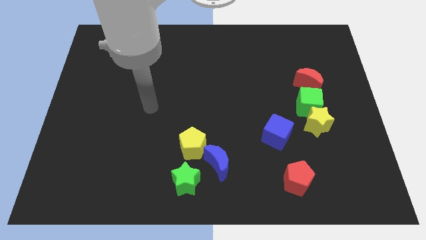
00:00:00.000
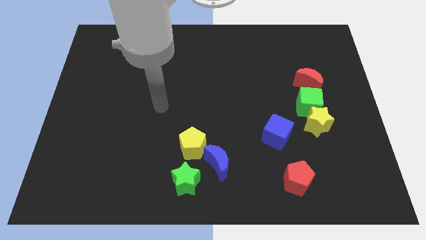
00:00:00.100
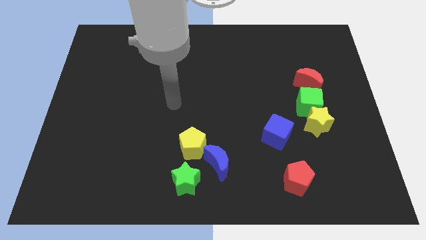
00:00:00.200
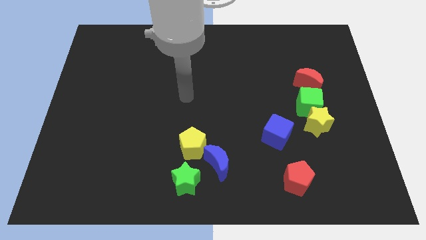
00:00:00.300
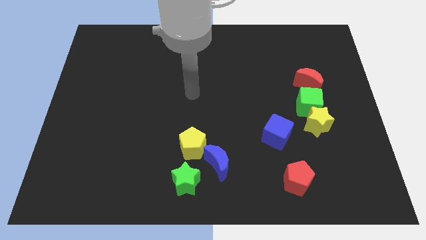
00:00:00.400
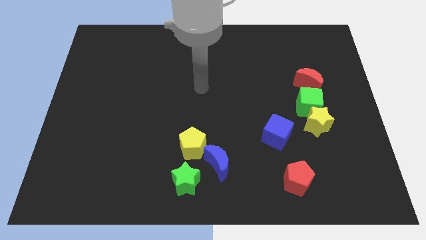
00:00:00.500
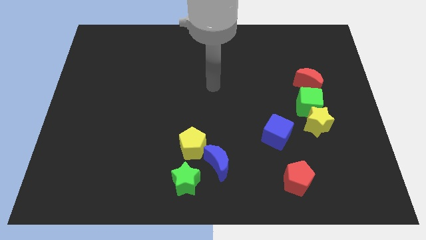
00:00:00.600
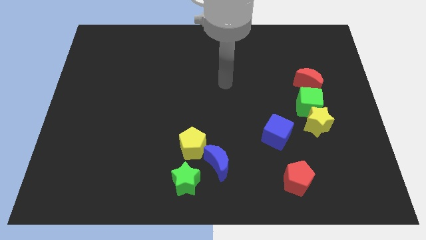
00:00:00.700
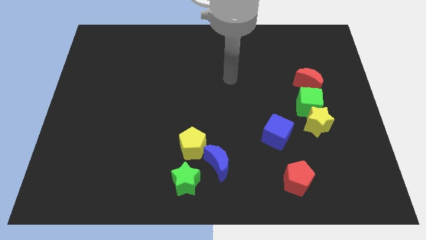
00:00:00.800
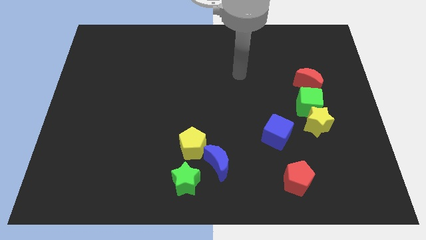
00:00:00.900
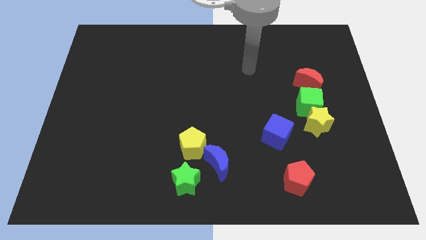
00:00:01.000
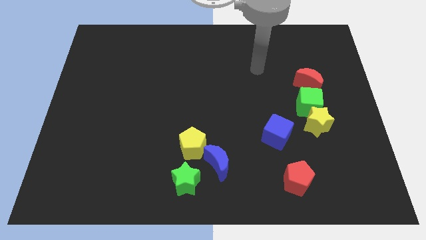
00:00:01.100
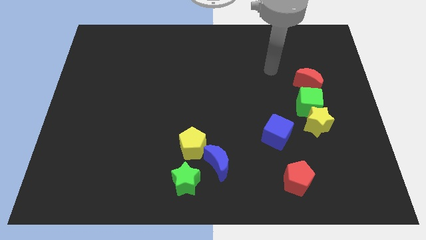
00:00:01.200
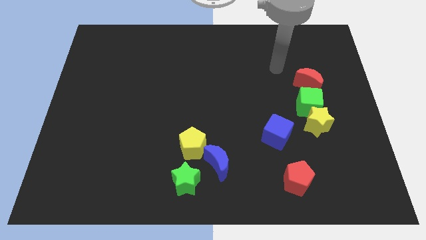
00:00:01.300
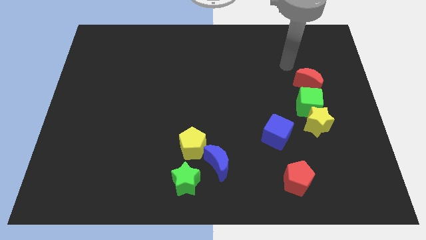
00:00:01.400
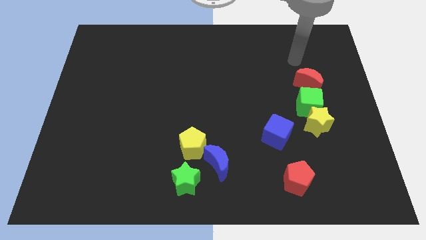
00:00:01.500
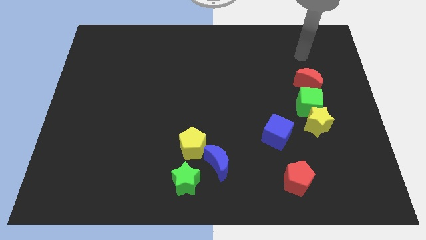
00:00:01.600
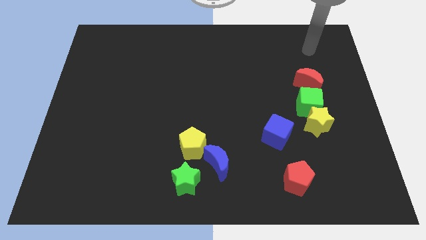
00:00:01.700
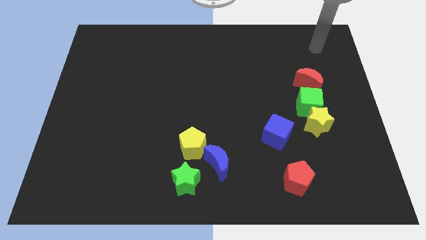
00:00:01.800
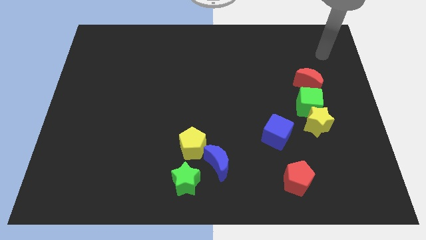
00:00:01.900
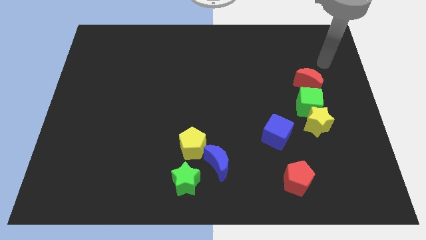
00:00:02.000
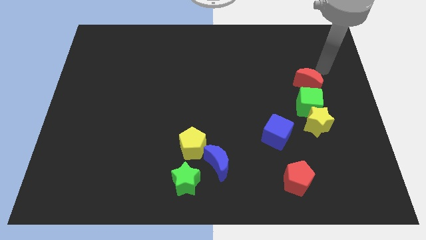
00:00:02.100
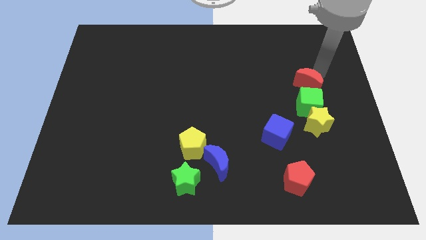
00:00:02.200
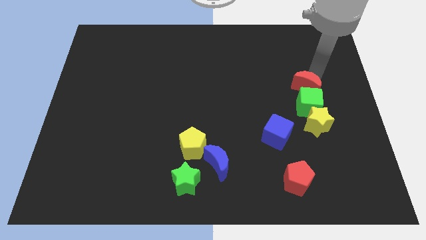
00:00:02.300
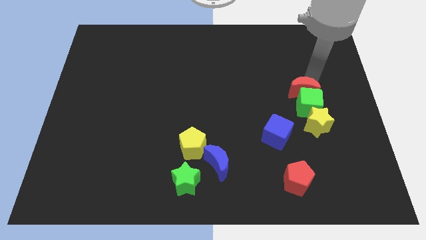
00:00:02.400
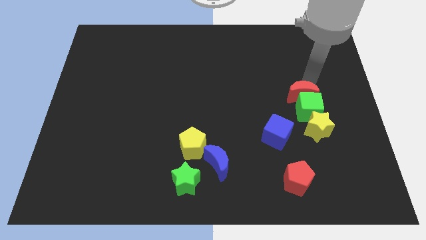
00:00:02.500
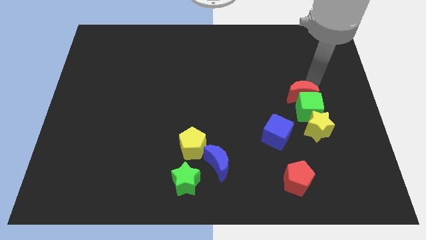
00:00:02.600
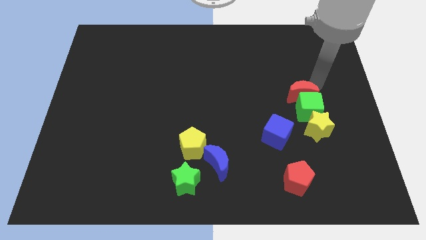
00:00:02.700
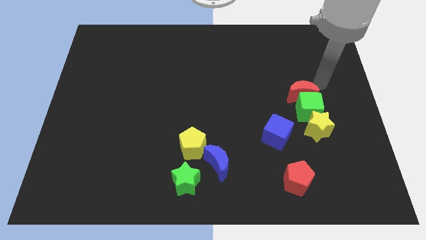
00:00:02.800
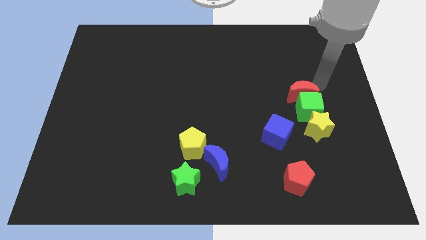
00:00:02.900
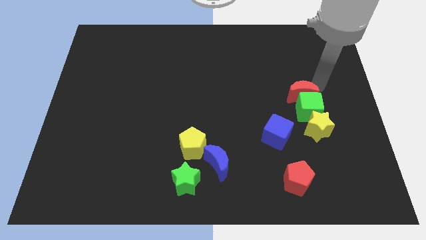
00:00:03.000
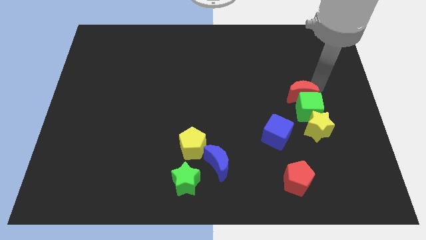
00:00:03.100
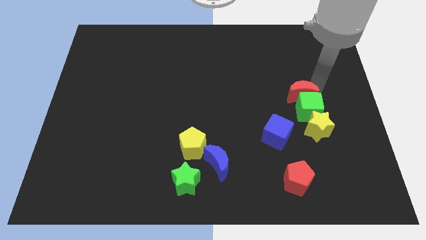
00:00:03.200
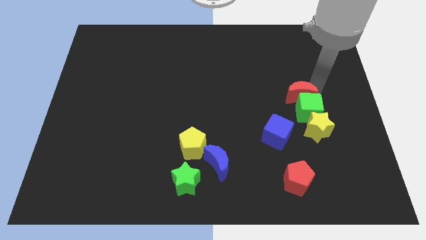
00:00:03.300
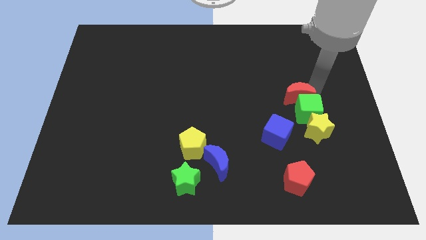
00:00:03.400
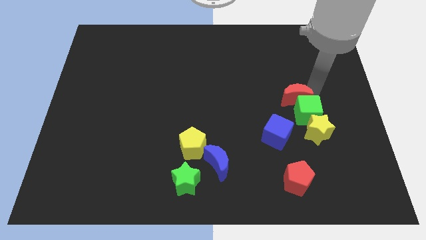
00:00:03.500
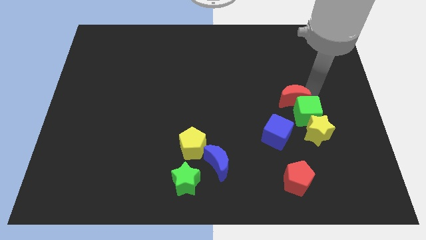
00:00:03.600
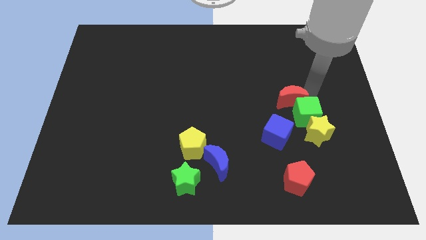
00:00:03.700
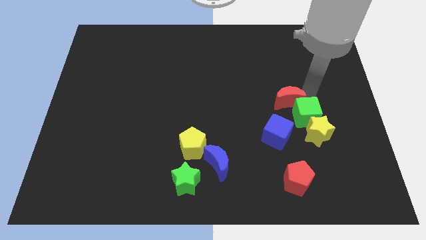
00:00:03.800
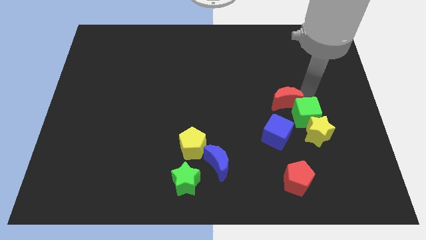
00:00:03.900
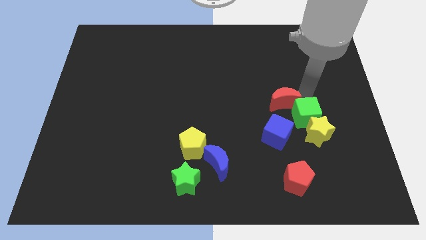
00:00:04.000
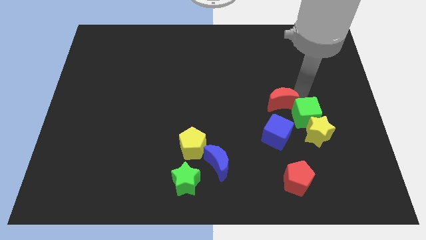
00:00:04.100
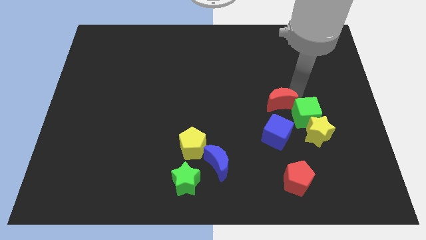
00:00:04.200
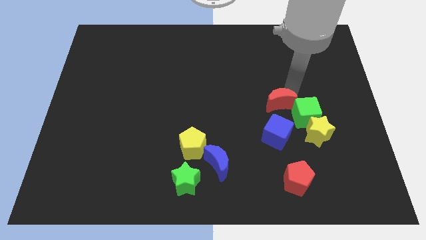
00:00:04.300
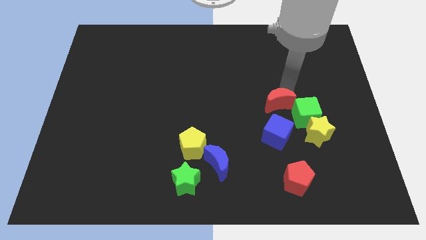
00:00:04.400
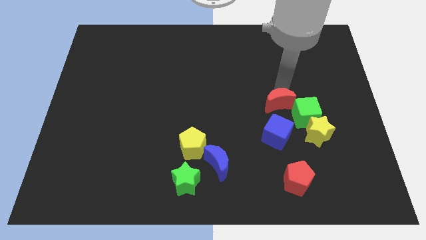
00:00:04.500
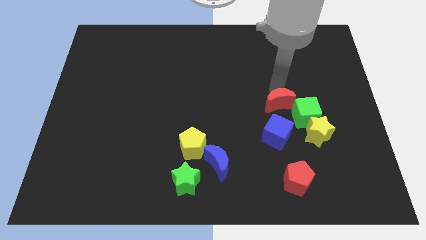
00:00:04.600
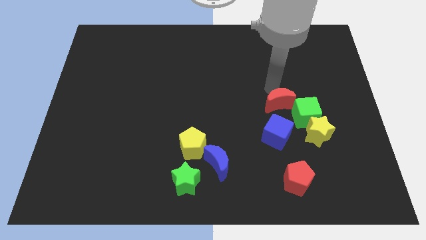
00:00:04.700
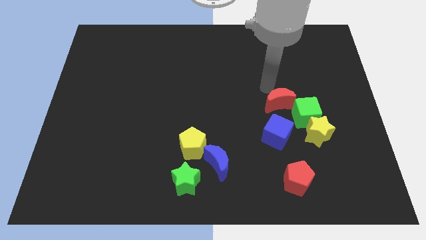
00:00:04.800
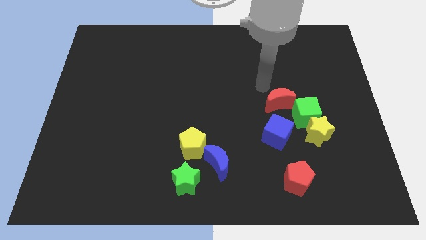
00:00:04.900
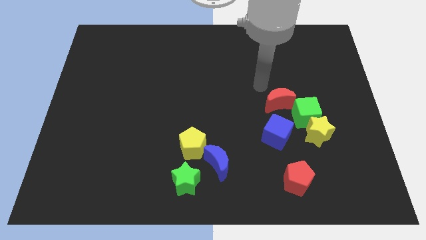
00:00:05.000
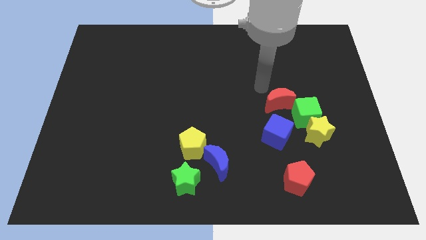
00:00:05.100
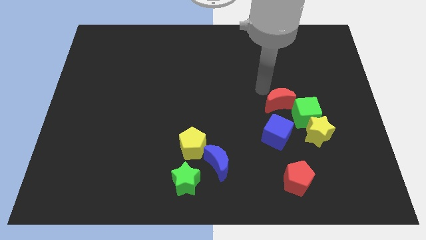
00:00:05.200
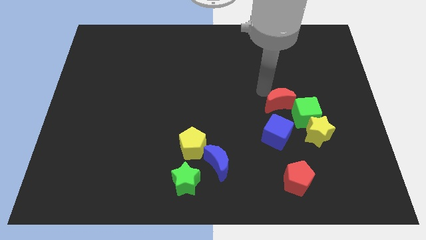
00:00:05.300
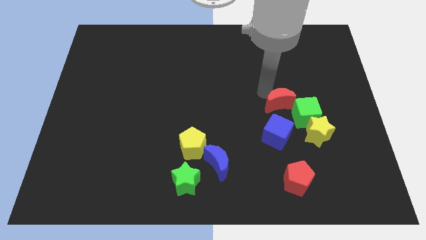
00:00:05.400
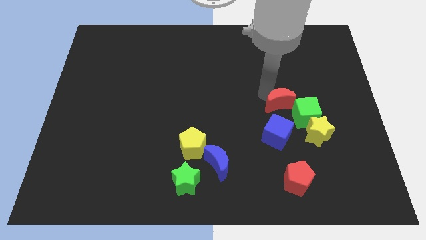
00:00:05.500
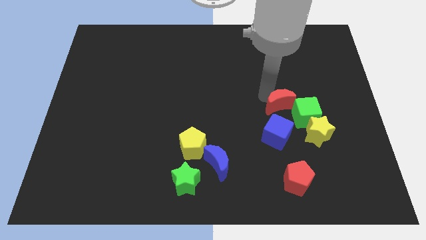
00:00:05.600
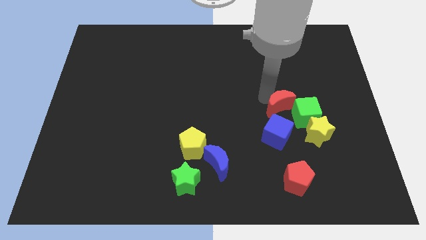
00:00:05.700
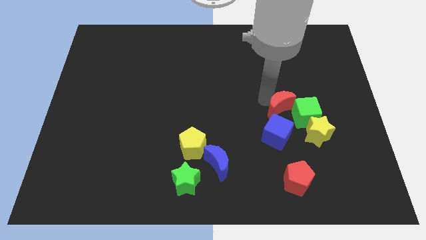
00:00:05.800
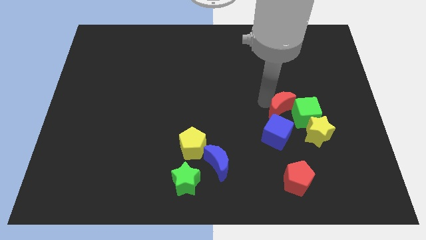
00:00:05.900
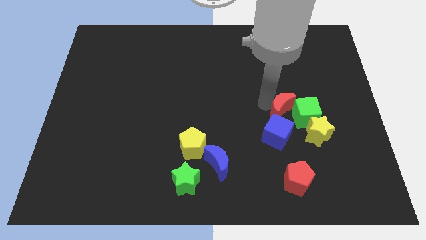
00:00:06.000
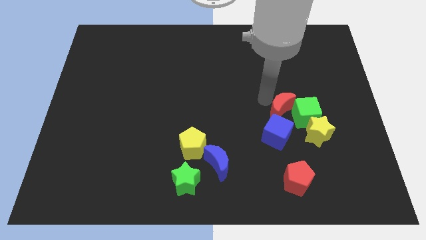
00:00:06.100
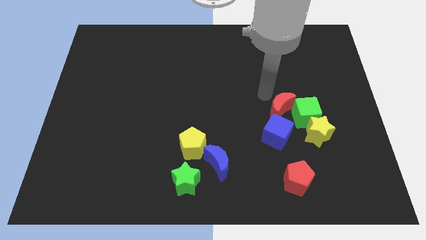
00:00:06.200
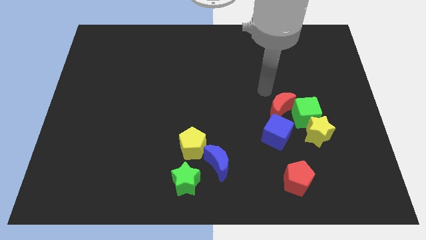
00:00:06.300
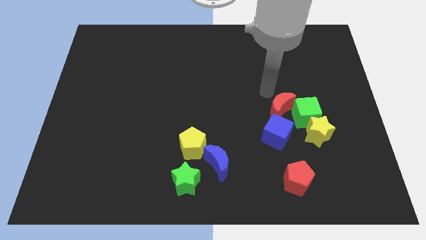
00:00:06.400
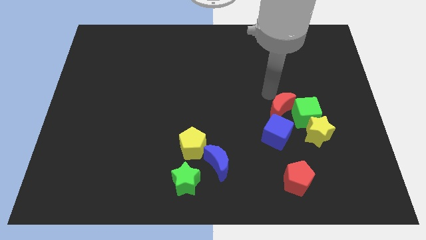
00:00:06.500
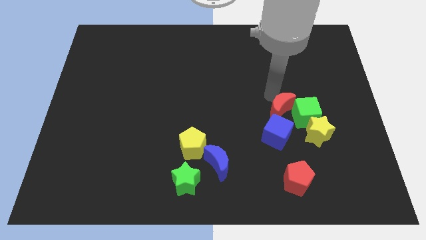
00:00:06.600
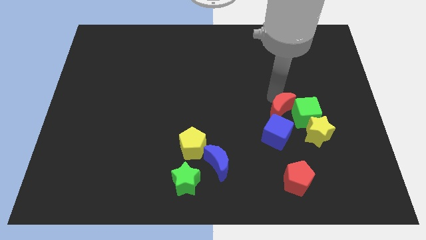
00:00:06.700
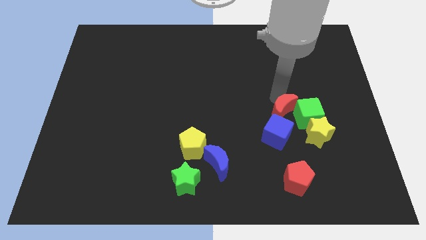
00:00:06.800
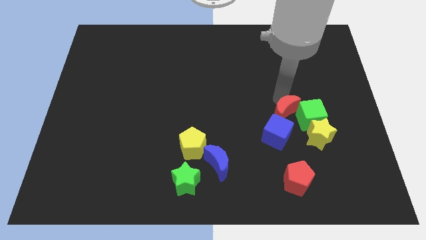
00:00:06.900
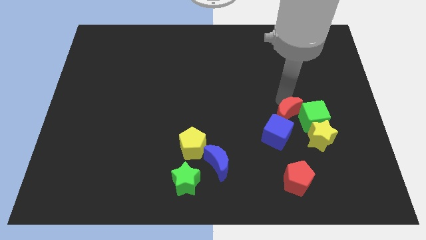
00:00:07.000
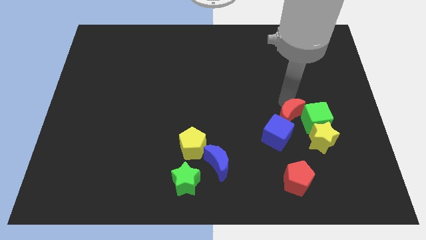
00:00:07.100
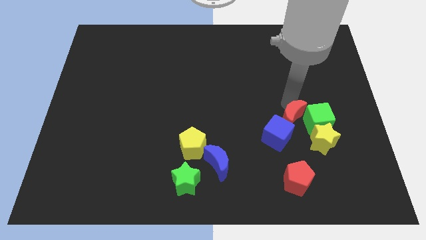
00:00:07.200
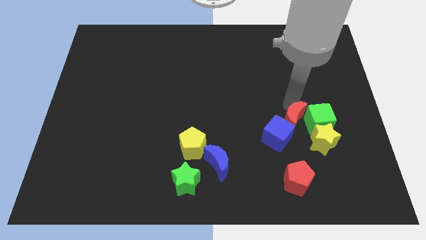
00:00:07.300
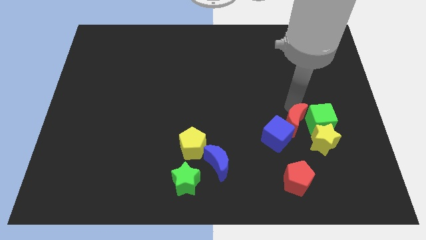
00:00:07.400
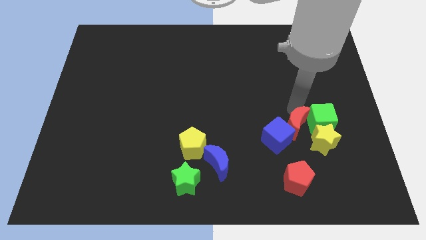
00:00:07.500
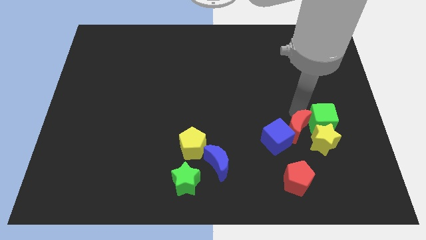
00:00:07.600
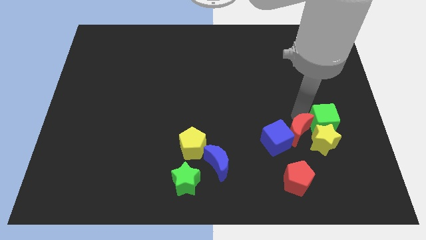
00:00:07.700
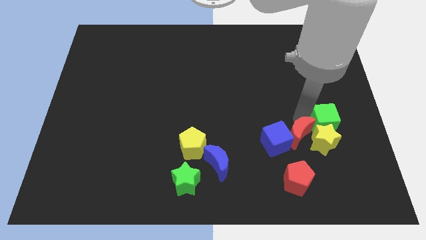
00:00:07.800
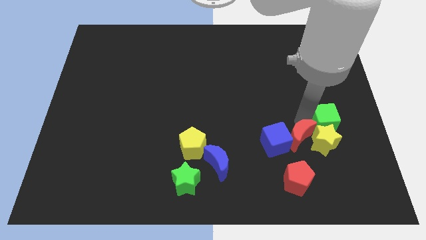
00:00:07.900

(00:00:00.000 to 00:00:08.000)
slide the red moon to the bottom right side of the blue cube
